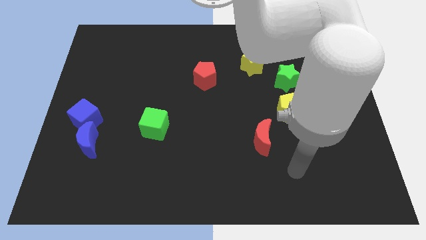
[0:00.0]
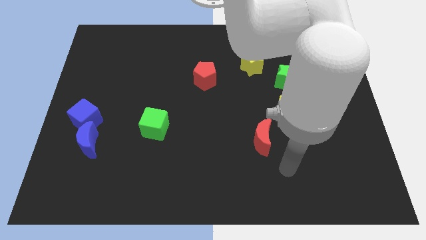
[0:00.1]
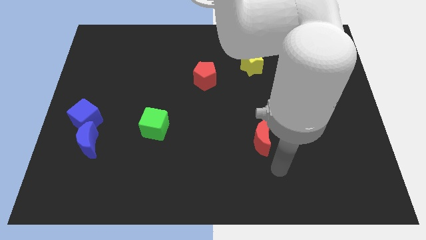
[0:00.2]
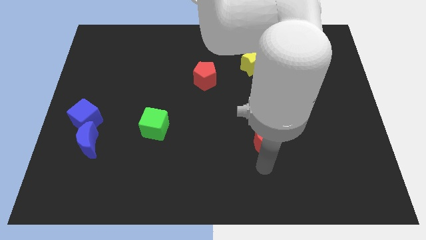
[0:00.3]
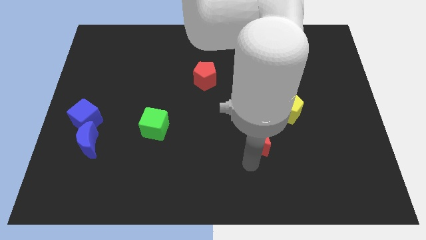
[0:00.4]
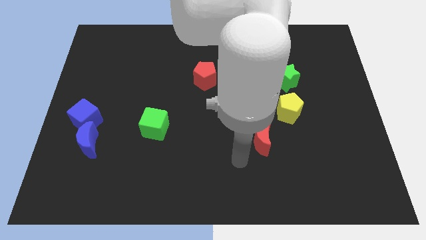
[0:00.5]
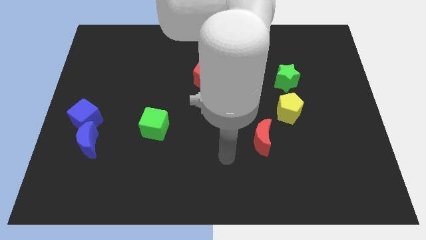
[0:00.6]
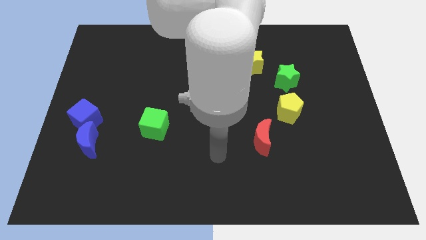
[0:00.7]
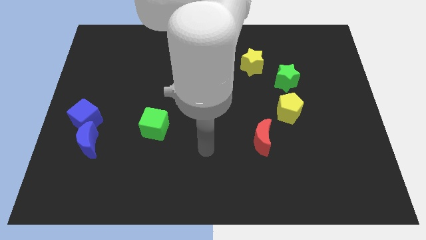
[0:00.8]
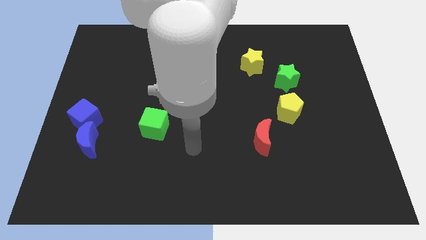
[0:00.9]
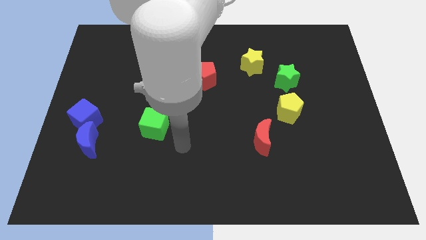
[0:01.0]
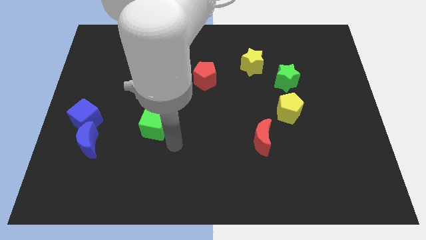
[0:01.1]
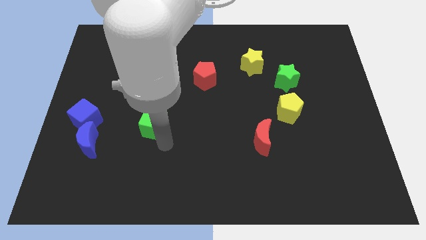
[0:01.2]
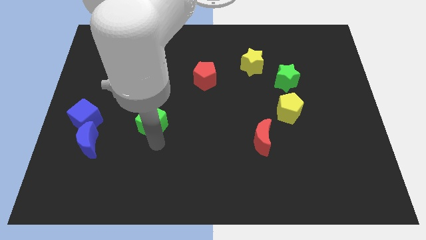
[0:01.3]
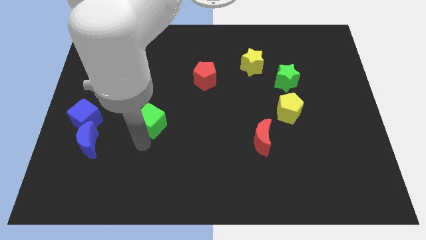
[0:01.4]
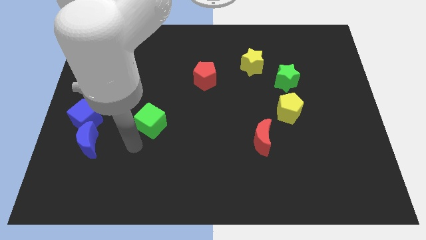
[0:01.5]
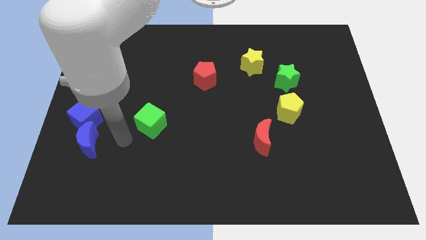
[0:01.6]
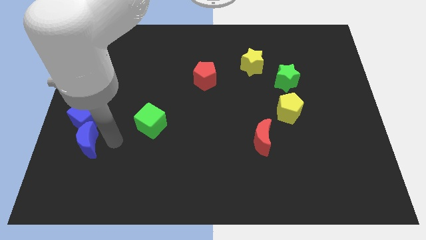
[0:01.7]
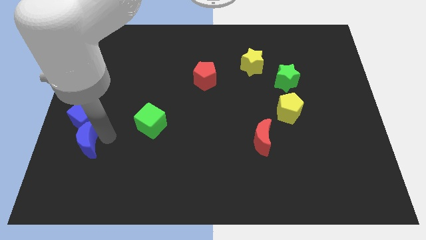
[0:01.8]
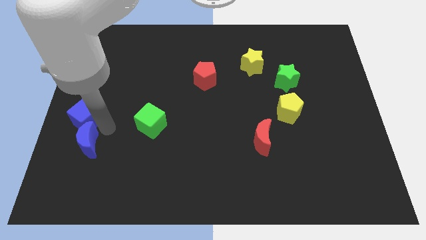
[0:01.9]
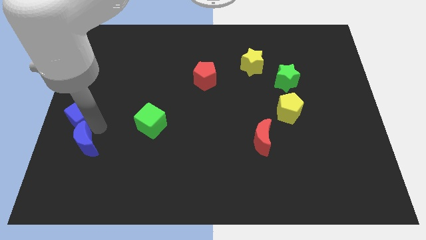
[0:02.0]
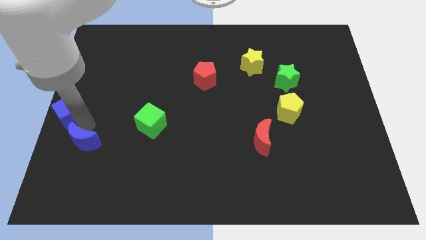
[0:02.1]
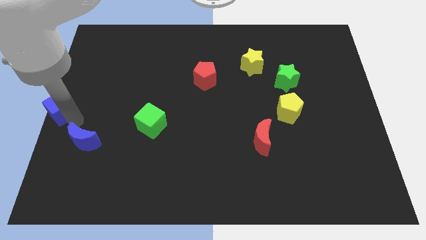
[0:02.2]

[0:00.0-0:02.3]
separate the blue moon from the blue cube

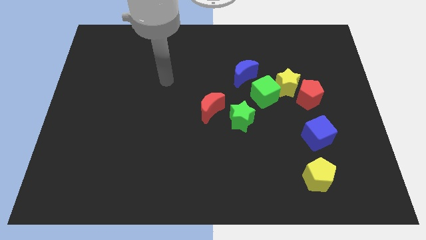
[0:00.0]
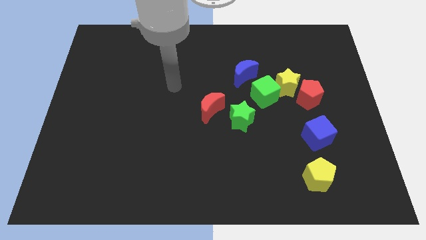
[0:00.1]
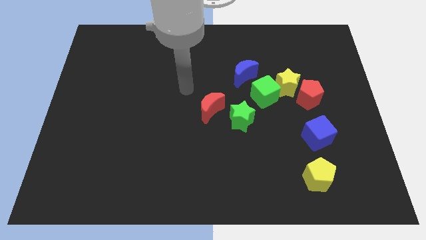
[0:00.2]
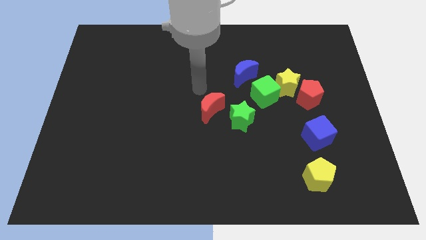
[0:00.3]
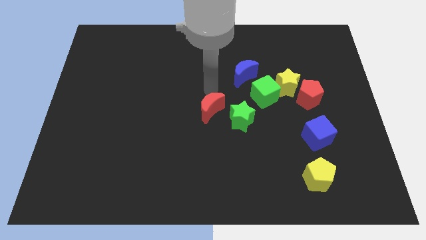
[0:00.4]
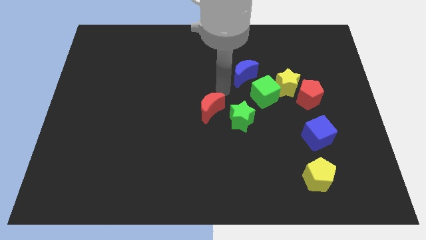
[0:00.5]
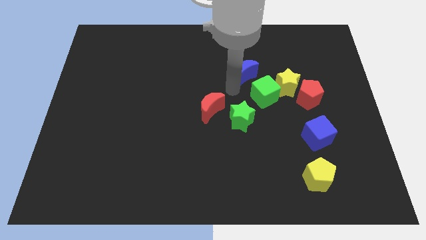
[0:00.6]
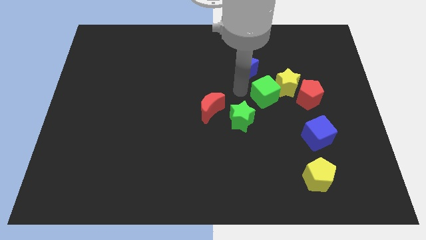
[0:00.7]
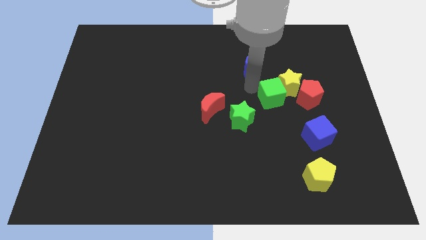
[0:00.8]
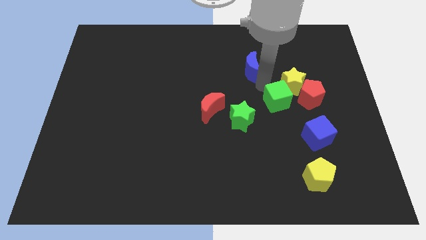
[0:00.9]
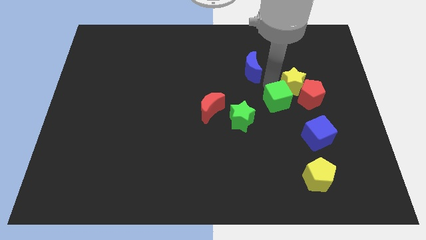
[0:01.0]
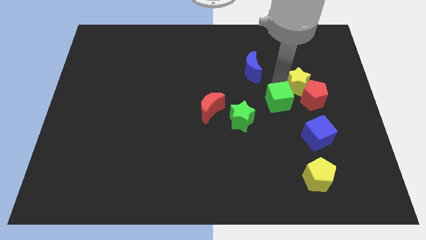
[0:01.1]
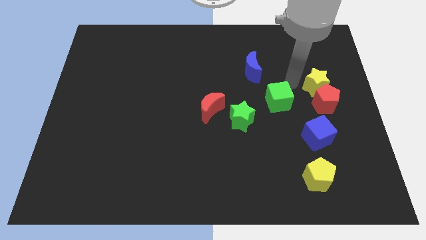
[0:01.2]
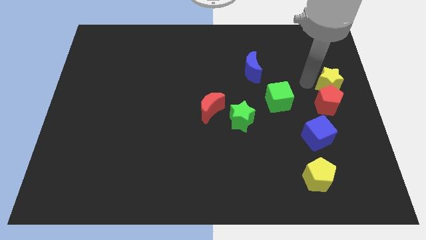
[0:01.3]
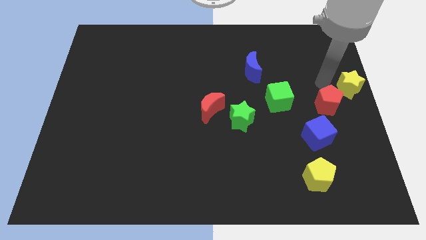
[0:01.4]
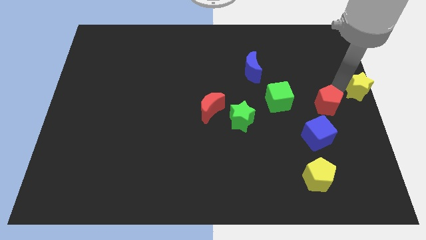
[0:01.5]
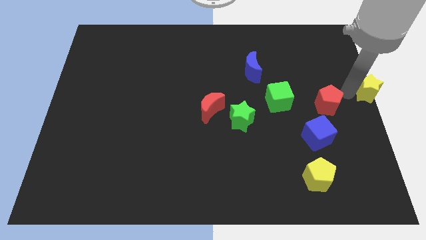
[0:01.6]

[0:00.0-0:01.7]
separate the red pentagon from the yellow star

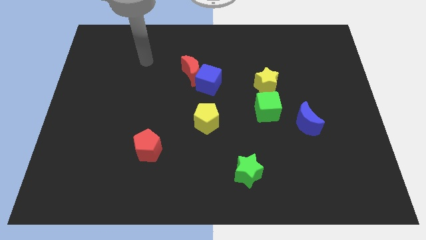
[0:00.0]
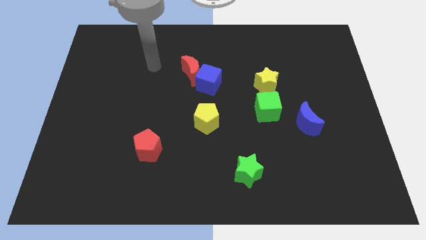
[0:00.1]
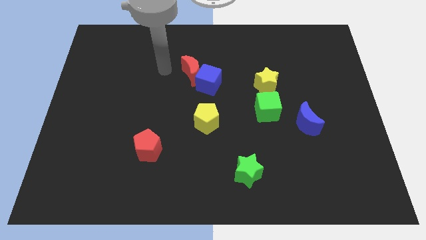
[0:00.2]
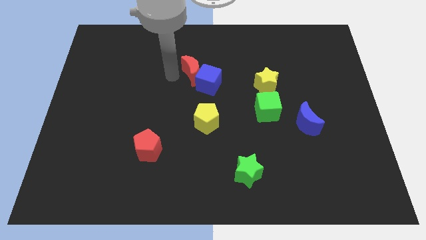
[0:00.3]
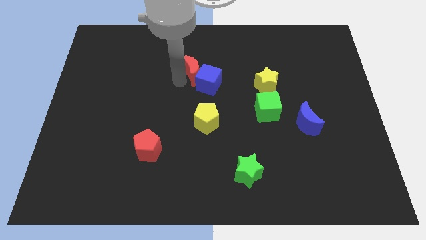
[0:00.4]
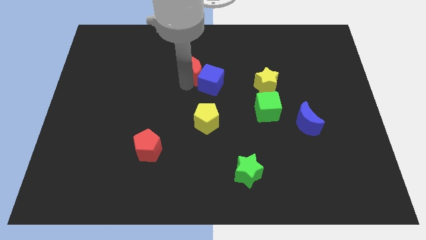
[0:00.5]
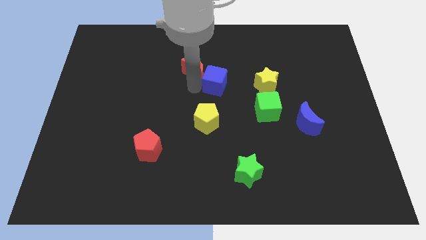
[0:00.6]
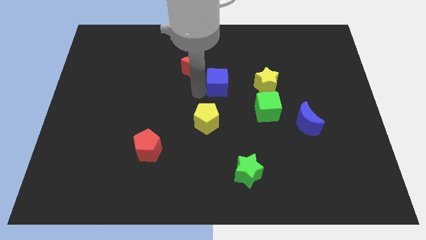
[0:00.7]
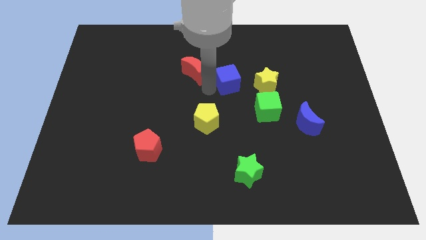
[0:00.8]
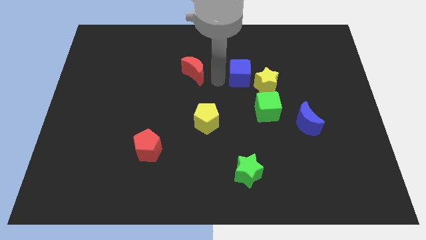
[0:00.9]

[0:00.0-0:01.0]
move the red moon away from the blue cube

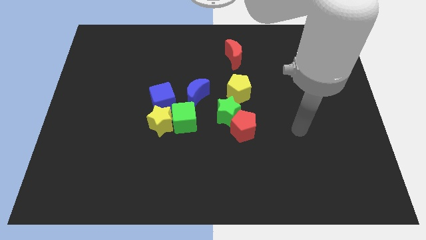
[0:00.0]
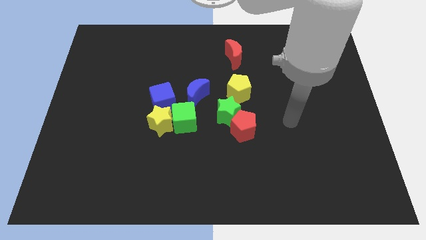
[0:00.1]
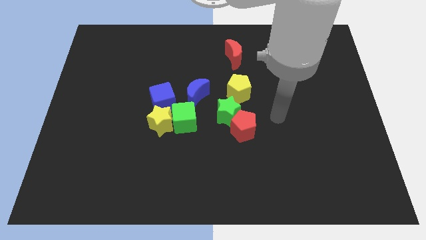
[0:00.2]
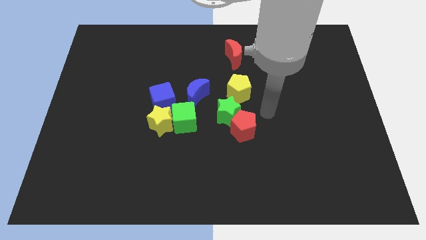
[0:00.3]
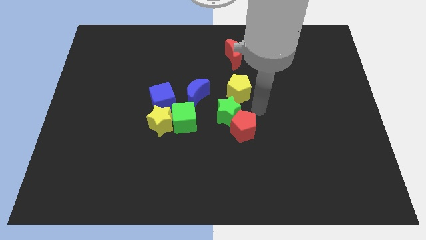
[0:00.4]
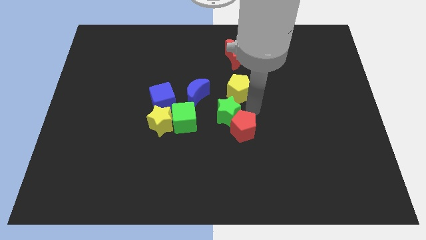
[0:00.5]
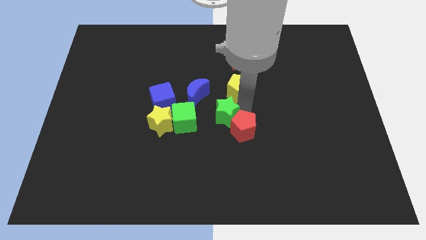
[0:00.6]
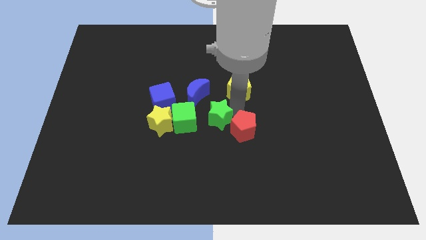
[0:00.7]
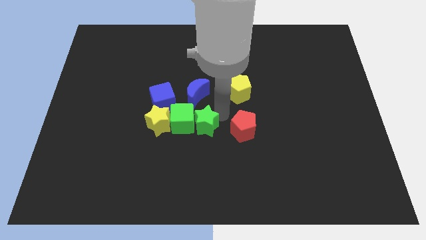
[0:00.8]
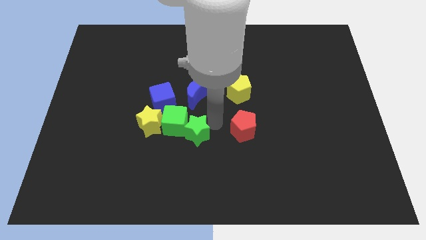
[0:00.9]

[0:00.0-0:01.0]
move the red pentagon away from the green star

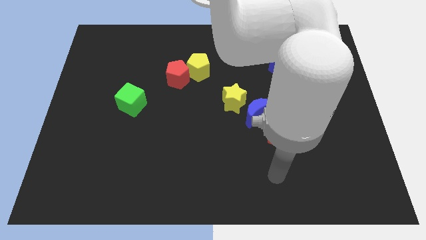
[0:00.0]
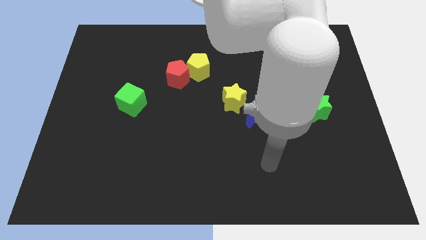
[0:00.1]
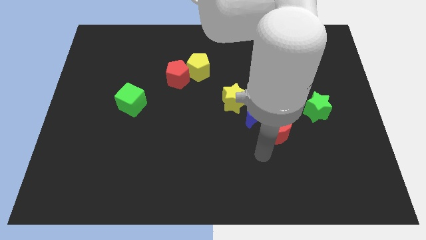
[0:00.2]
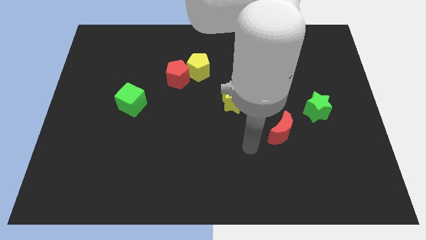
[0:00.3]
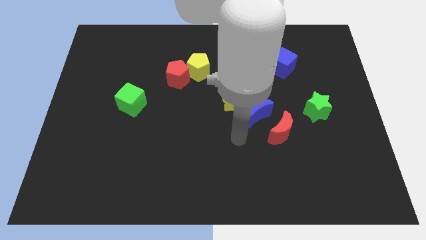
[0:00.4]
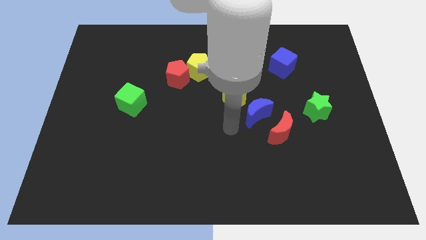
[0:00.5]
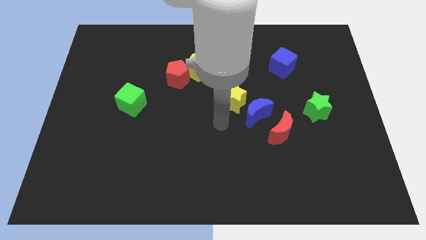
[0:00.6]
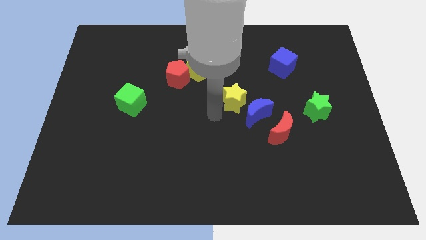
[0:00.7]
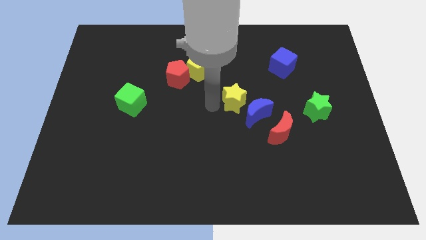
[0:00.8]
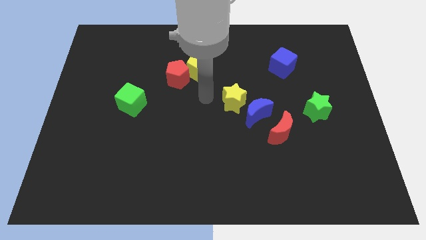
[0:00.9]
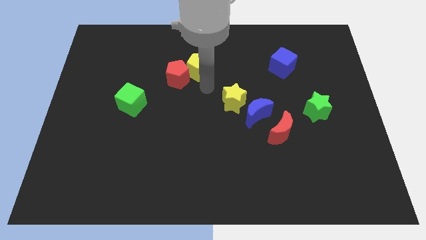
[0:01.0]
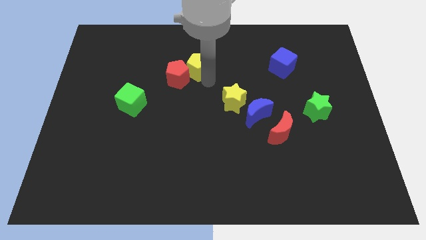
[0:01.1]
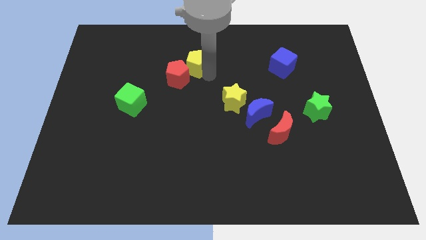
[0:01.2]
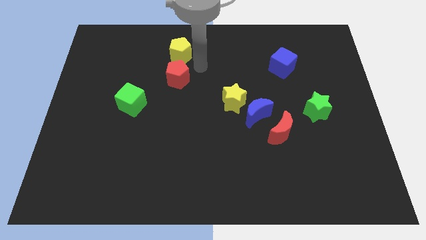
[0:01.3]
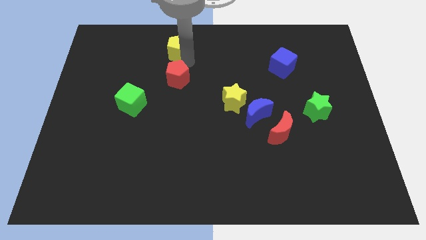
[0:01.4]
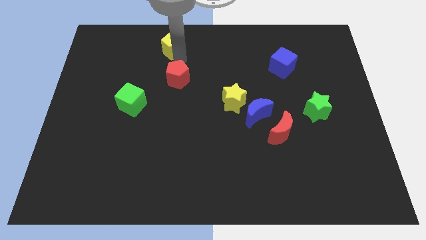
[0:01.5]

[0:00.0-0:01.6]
pull the red pentagon apart from the yellow pentagon

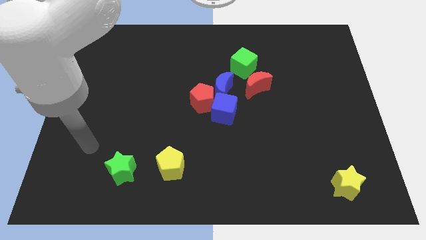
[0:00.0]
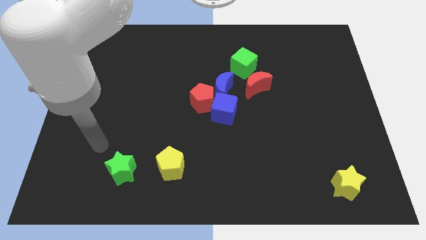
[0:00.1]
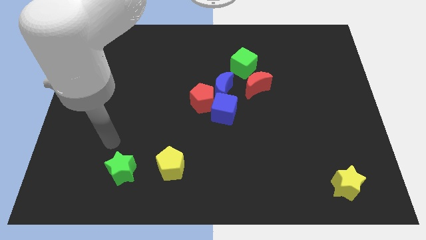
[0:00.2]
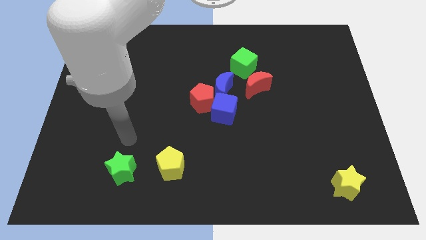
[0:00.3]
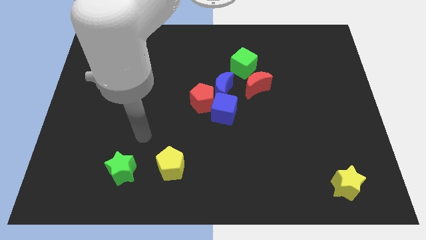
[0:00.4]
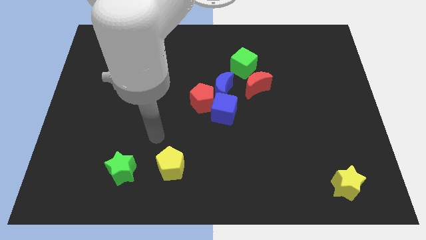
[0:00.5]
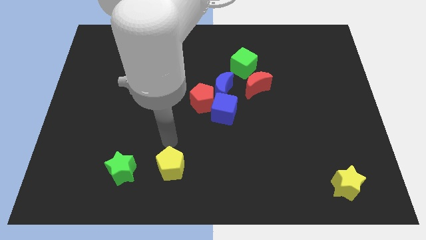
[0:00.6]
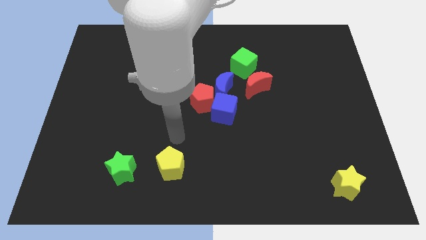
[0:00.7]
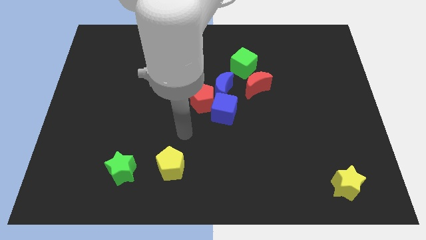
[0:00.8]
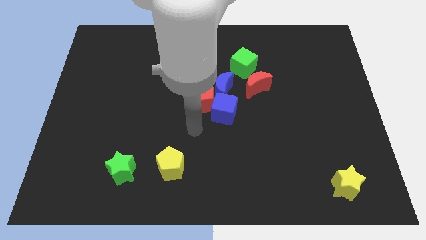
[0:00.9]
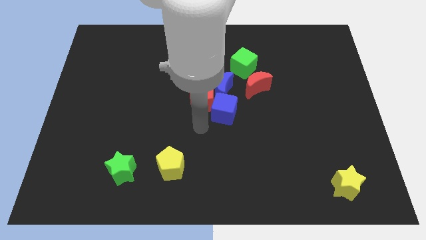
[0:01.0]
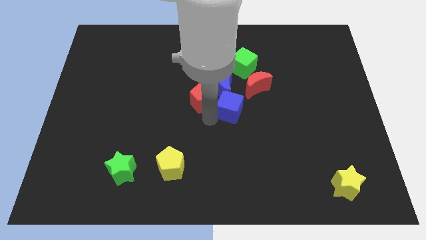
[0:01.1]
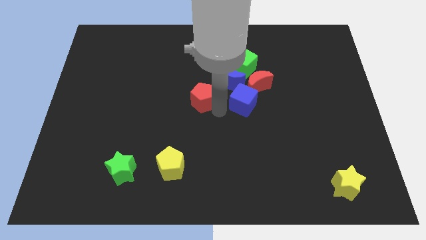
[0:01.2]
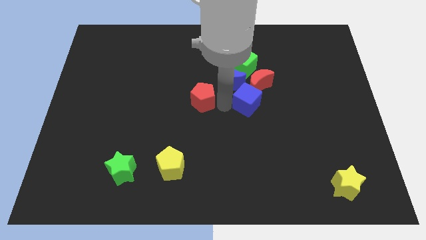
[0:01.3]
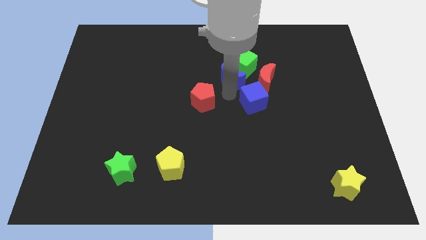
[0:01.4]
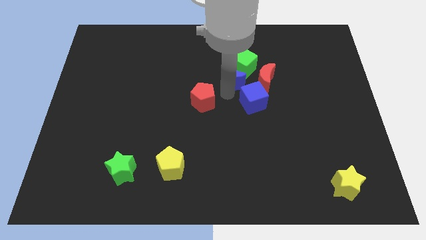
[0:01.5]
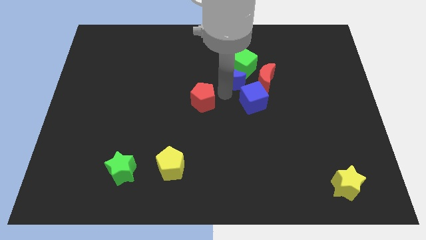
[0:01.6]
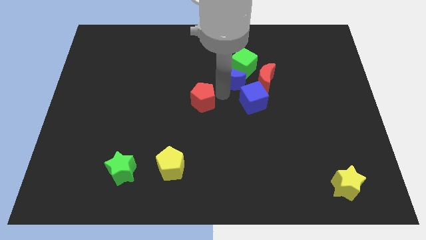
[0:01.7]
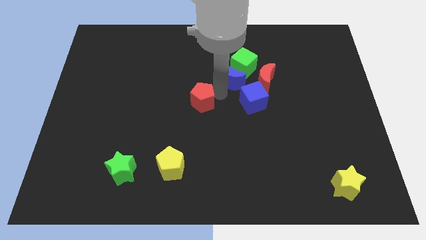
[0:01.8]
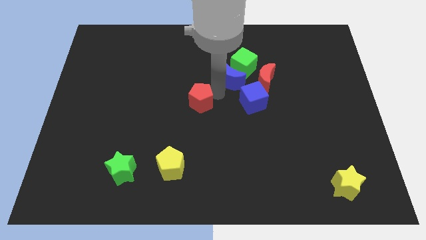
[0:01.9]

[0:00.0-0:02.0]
pull the red pentagon apart from the blue moon and blue cube
